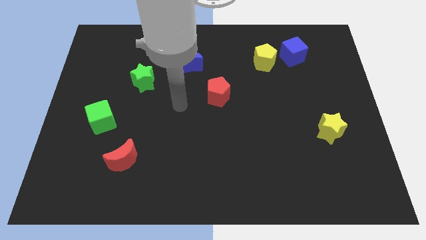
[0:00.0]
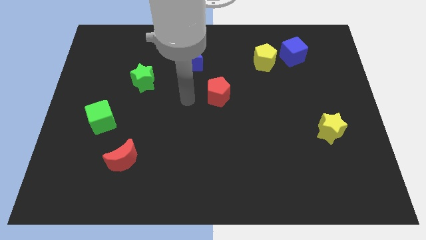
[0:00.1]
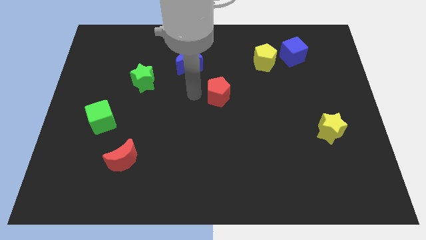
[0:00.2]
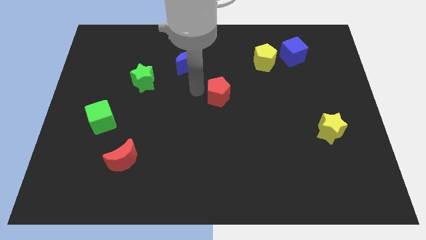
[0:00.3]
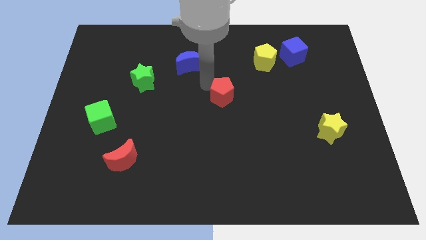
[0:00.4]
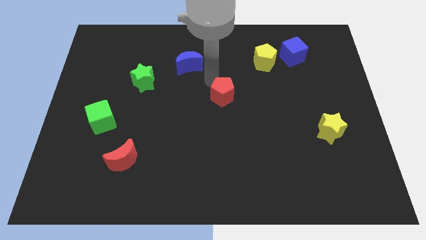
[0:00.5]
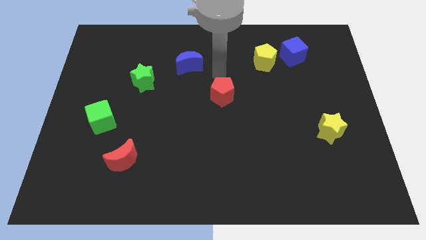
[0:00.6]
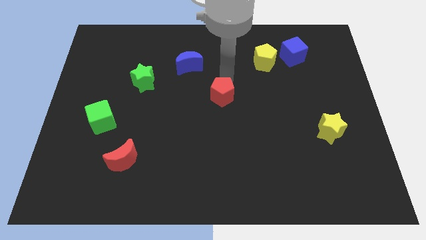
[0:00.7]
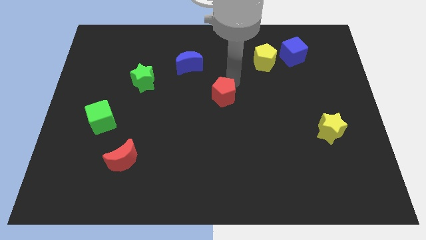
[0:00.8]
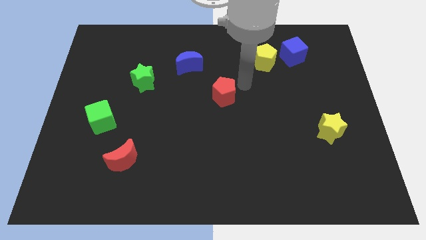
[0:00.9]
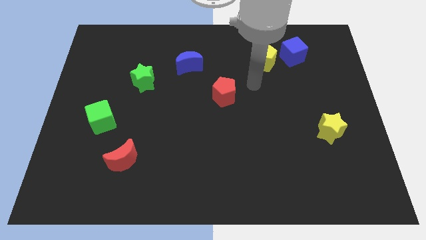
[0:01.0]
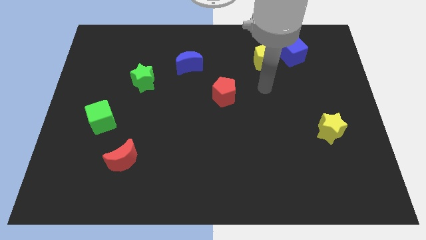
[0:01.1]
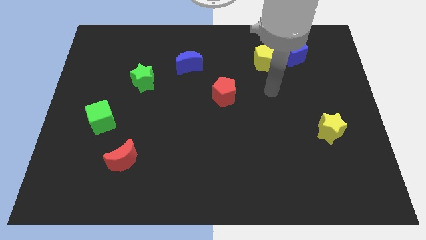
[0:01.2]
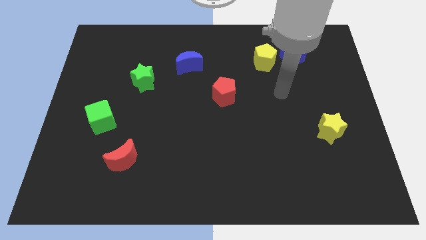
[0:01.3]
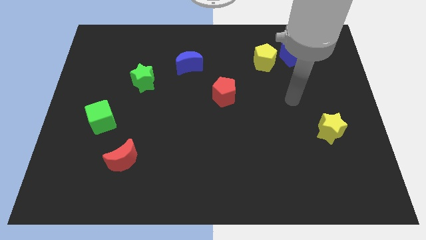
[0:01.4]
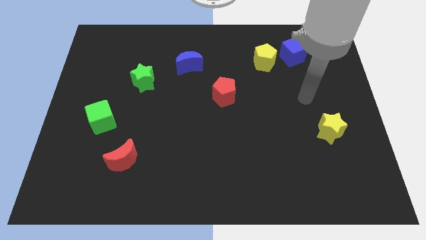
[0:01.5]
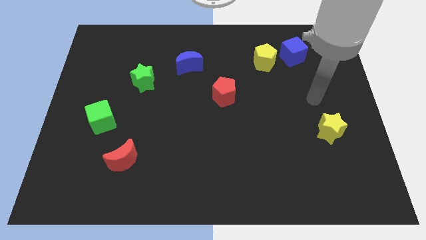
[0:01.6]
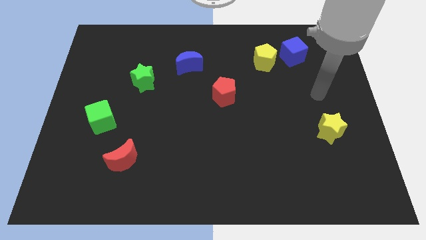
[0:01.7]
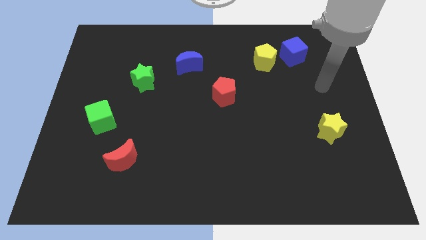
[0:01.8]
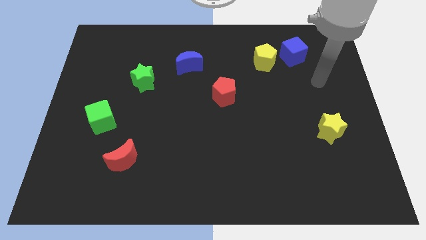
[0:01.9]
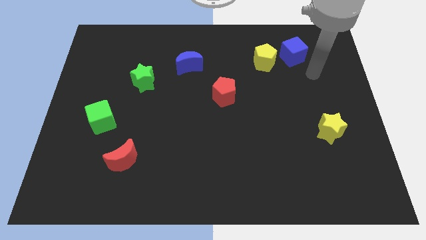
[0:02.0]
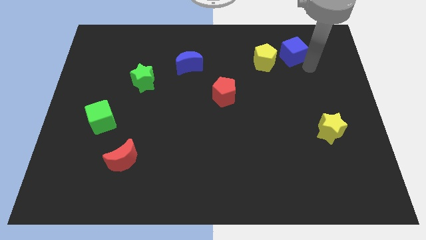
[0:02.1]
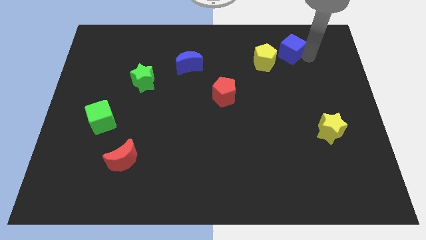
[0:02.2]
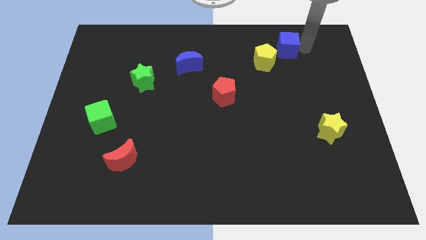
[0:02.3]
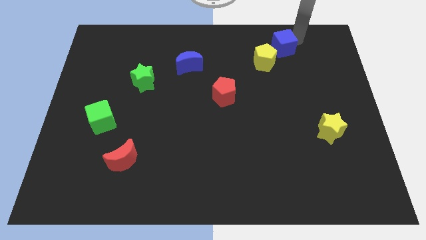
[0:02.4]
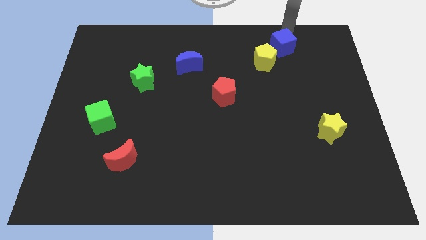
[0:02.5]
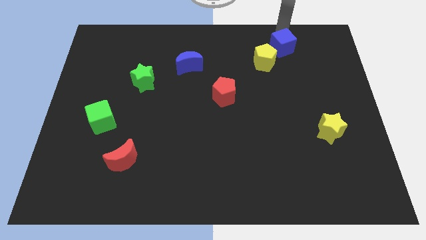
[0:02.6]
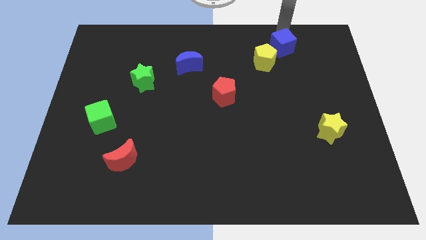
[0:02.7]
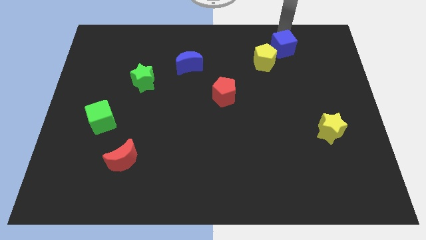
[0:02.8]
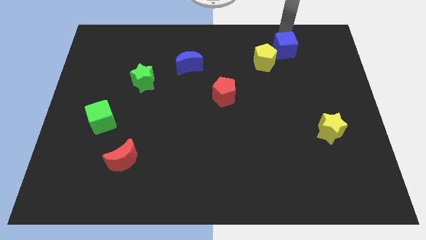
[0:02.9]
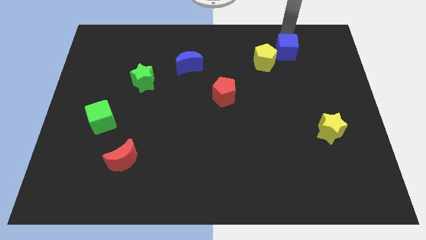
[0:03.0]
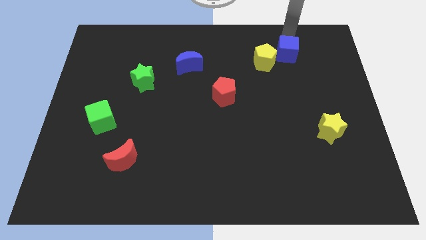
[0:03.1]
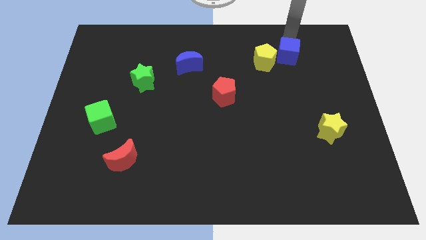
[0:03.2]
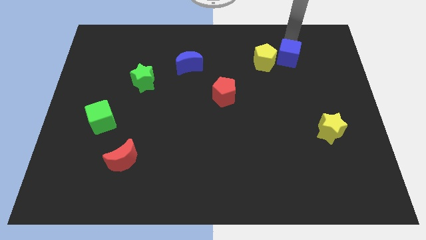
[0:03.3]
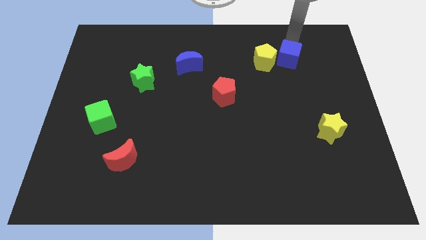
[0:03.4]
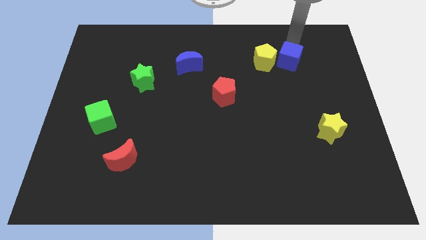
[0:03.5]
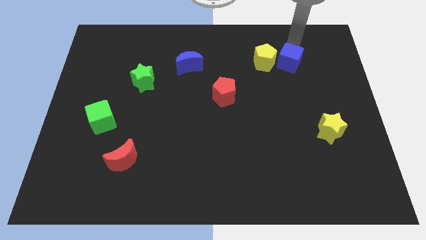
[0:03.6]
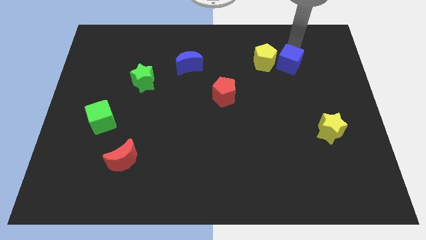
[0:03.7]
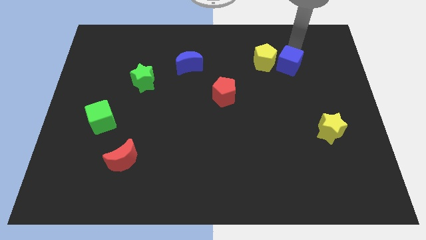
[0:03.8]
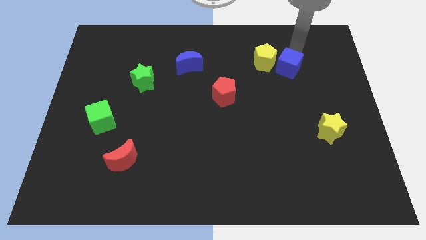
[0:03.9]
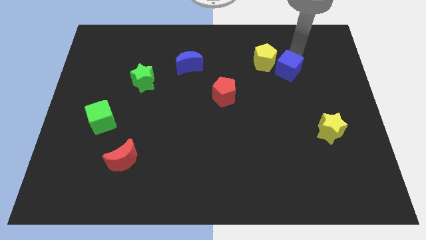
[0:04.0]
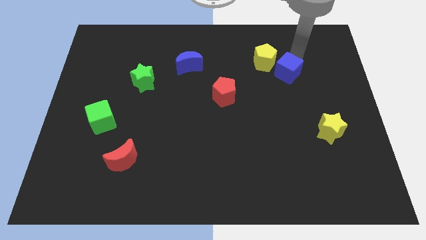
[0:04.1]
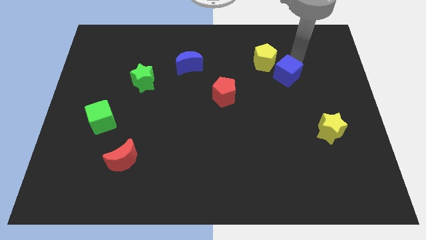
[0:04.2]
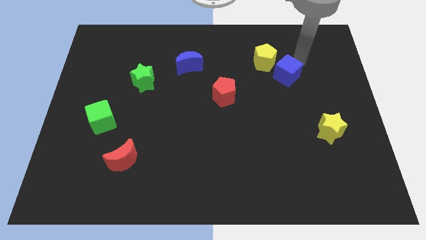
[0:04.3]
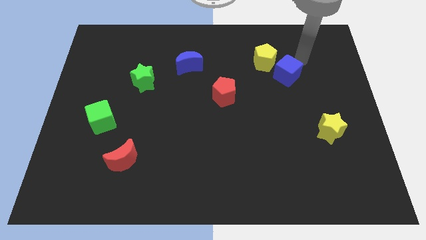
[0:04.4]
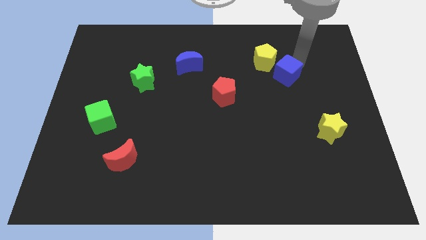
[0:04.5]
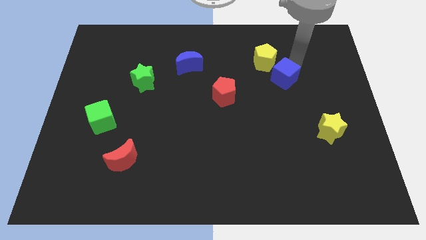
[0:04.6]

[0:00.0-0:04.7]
push the blue cube below the yellow pentagon

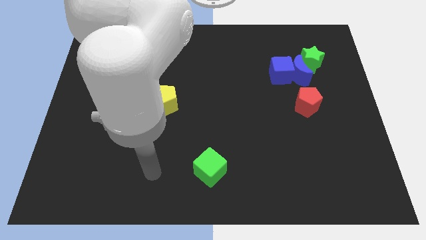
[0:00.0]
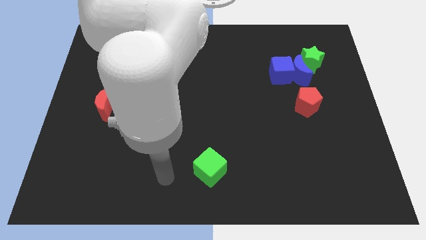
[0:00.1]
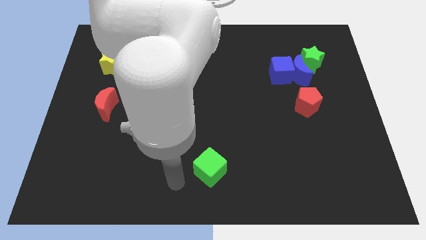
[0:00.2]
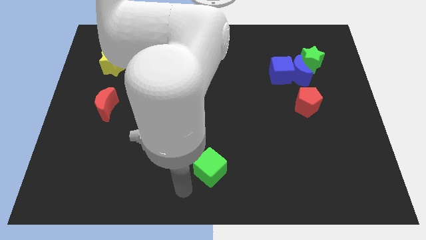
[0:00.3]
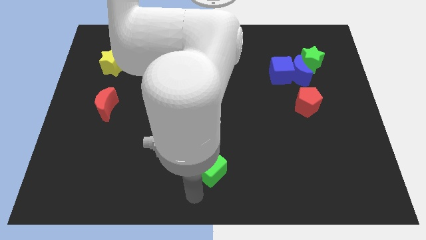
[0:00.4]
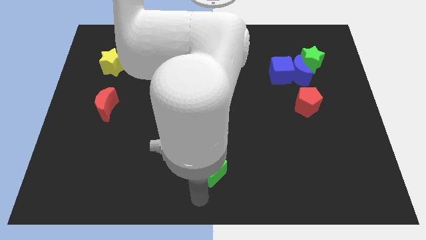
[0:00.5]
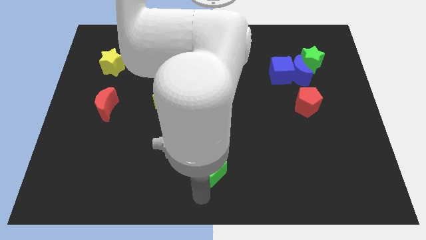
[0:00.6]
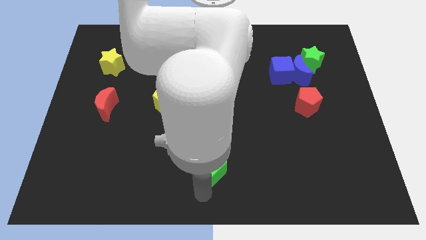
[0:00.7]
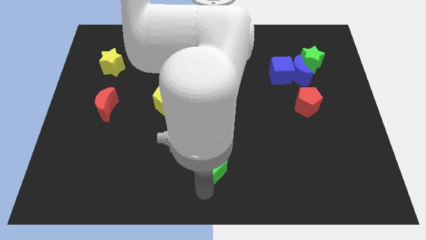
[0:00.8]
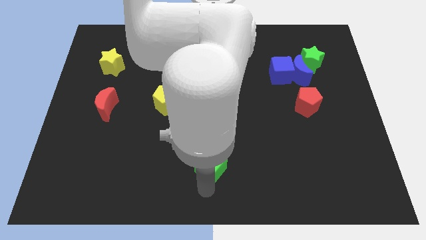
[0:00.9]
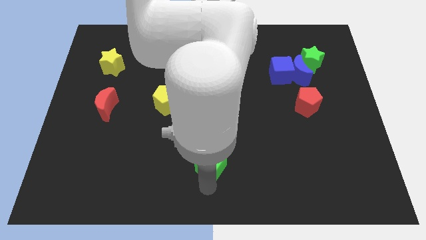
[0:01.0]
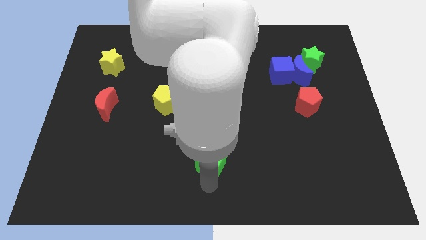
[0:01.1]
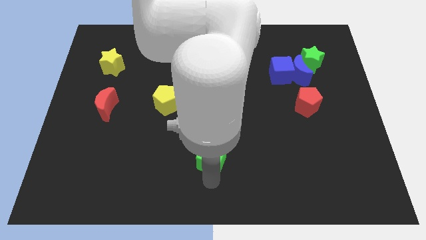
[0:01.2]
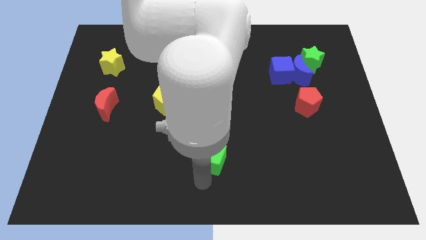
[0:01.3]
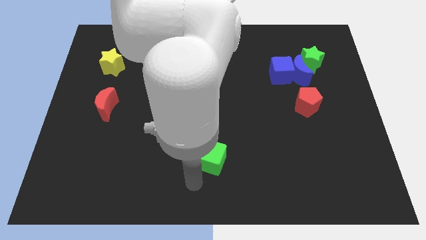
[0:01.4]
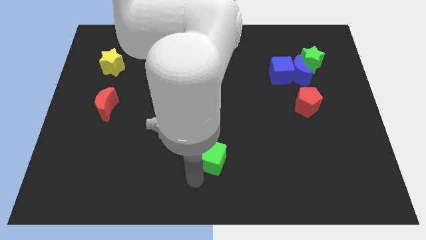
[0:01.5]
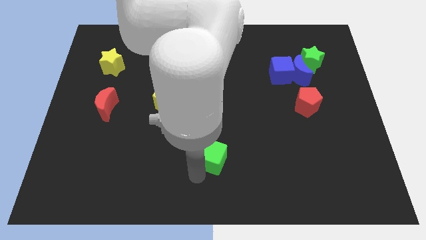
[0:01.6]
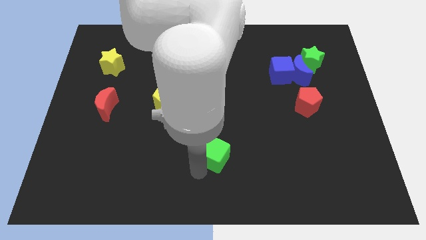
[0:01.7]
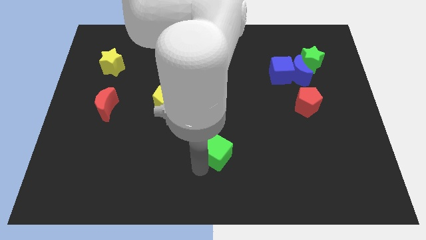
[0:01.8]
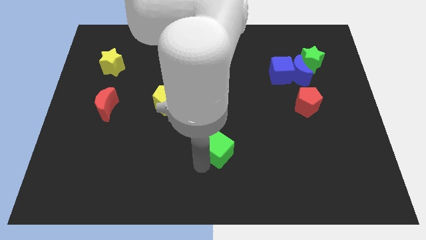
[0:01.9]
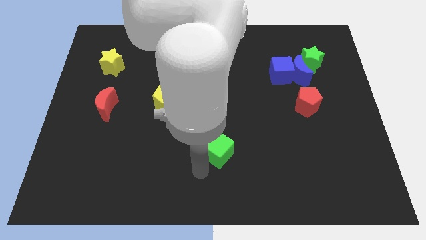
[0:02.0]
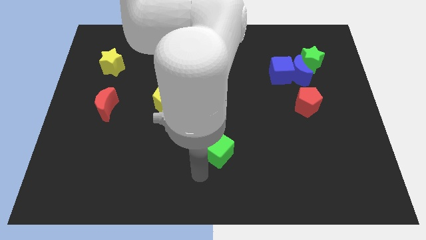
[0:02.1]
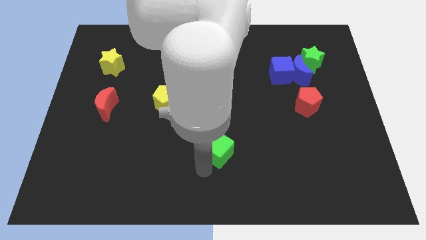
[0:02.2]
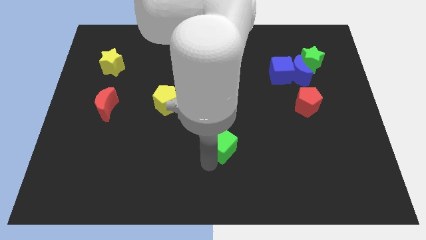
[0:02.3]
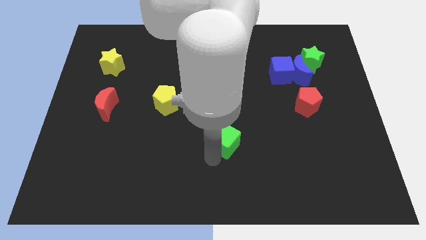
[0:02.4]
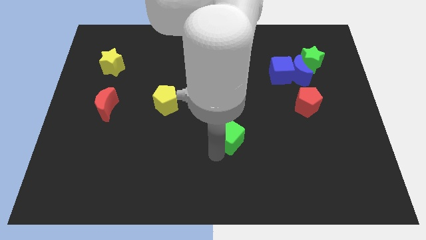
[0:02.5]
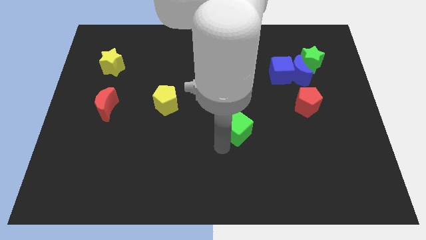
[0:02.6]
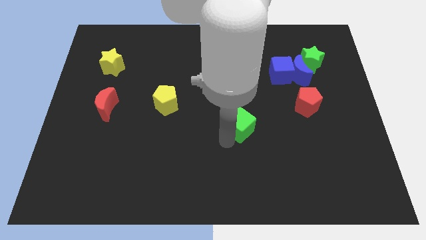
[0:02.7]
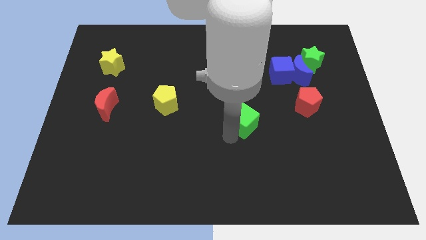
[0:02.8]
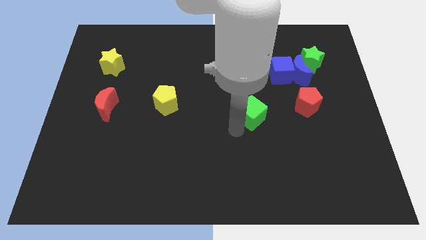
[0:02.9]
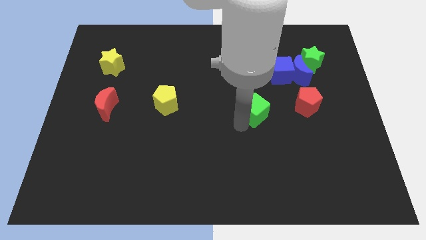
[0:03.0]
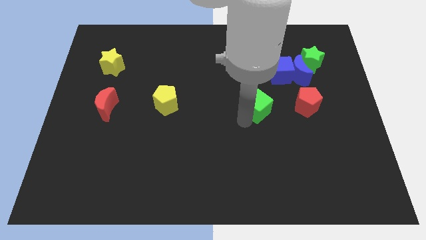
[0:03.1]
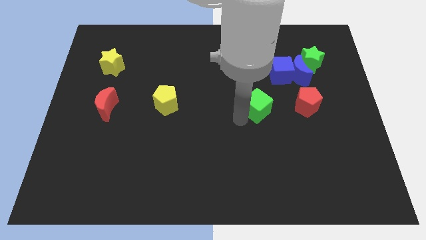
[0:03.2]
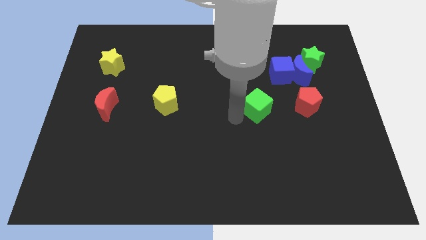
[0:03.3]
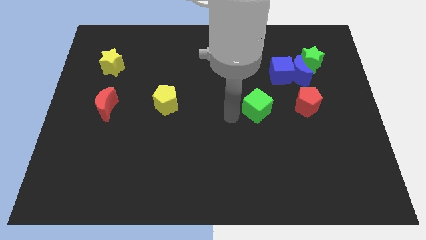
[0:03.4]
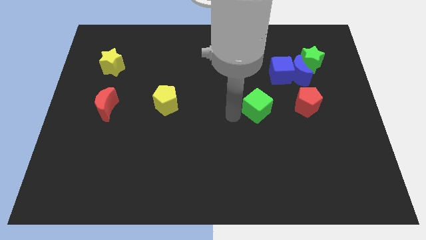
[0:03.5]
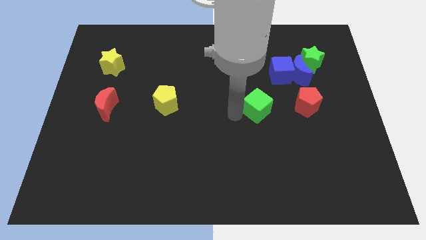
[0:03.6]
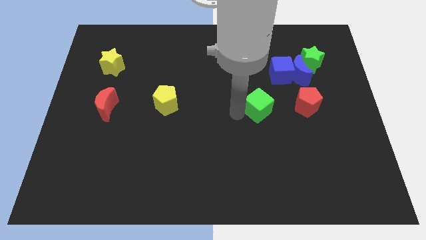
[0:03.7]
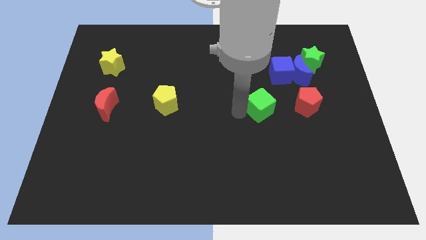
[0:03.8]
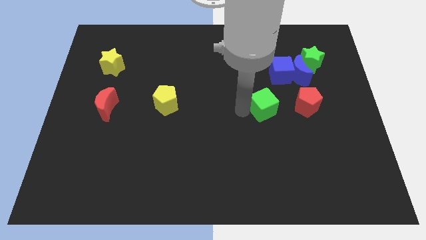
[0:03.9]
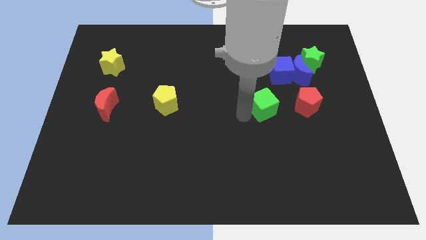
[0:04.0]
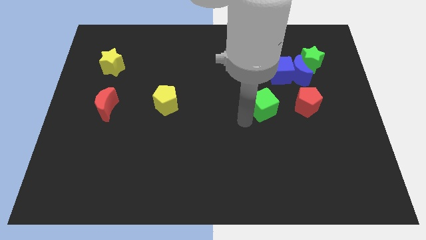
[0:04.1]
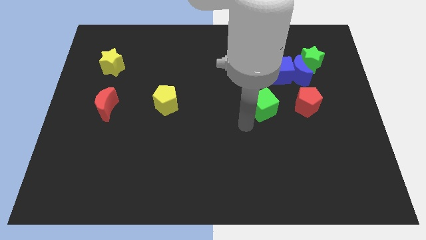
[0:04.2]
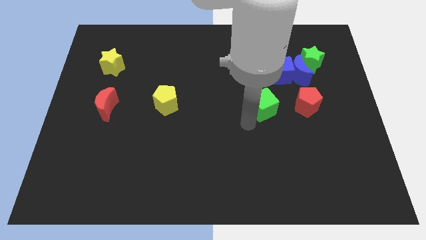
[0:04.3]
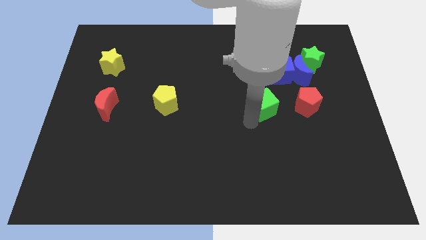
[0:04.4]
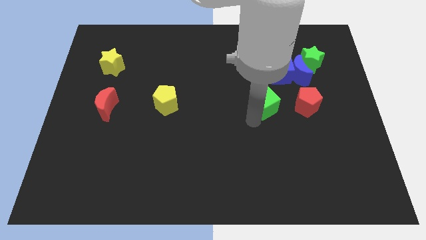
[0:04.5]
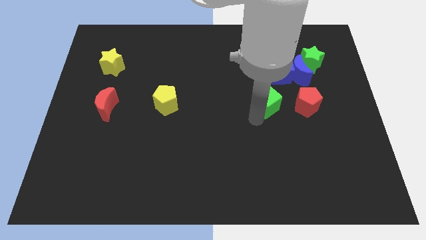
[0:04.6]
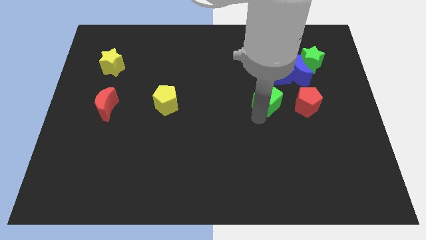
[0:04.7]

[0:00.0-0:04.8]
push the green cube to the bottom left of the blue moon
